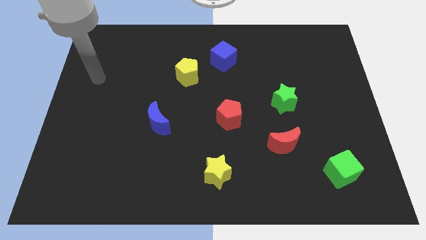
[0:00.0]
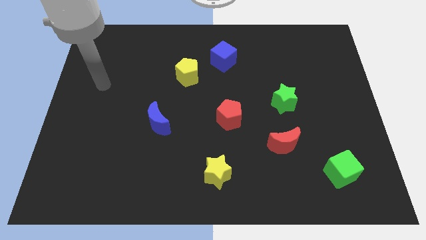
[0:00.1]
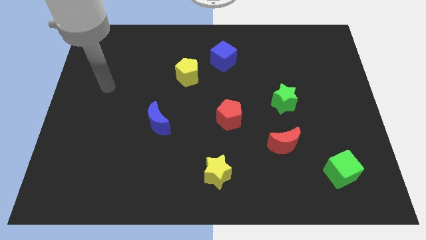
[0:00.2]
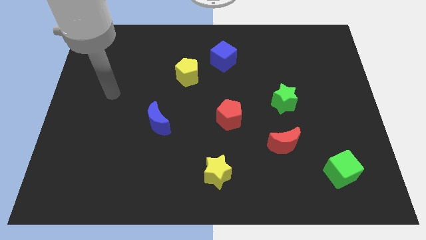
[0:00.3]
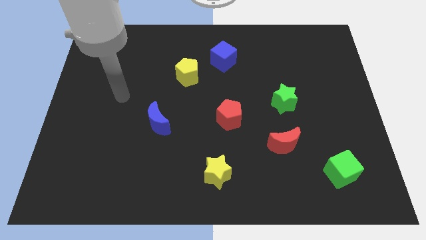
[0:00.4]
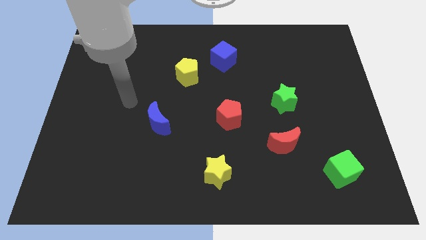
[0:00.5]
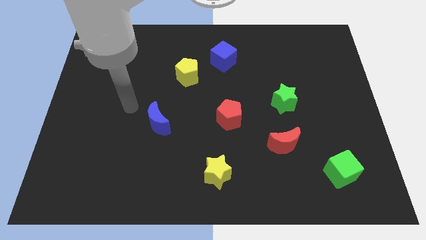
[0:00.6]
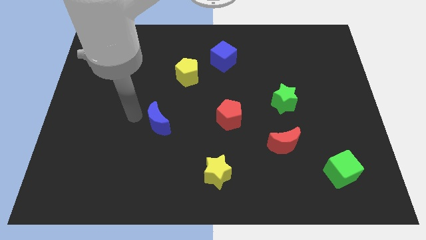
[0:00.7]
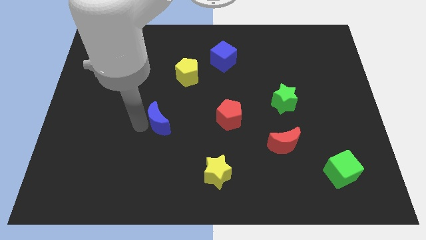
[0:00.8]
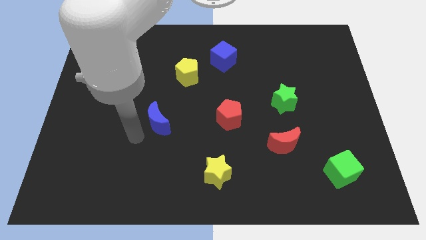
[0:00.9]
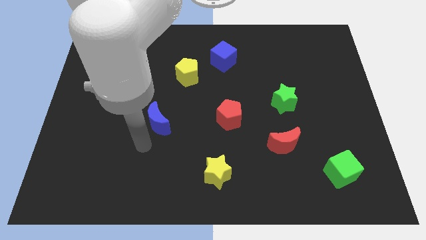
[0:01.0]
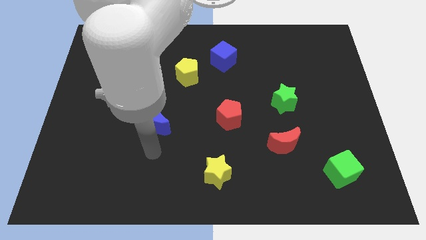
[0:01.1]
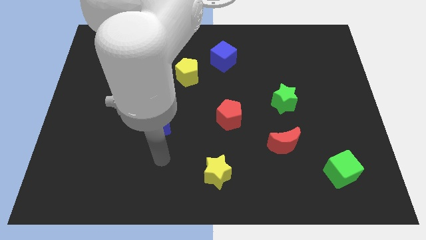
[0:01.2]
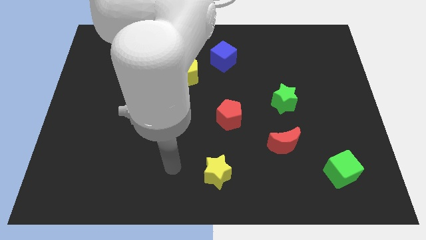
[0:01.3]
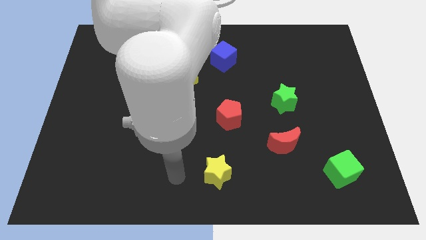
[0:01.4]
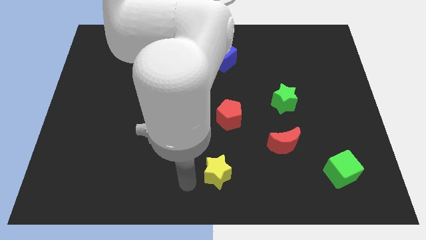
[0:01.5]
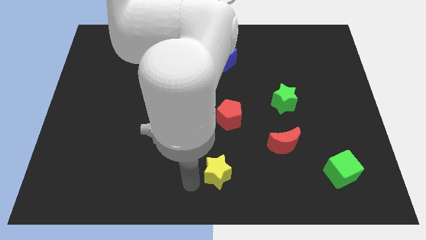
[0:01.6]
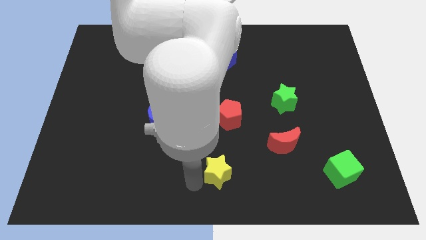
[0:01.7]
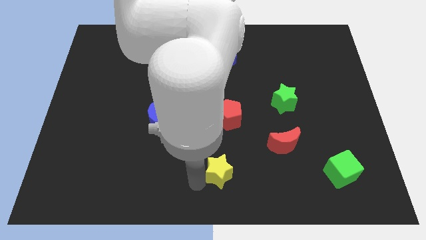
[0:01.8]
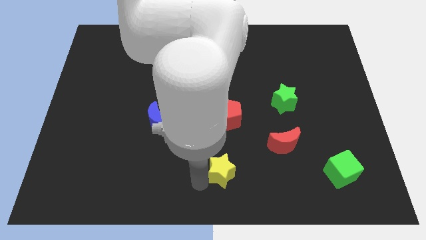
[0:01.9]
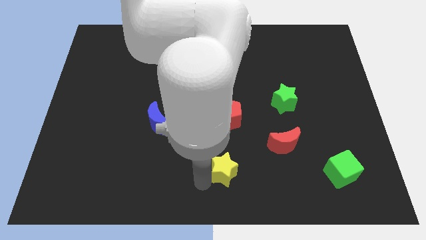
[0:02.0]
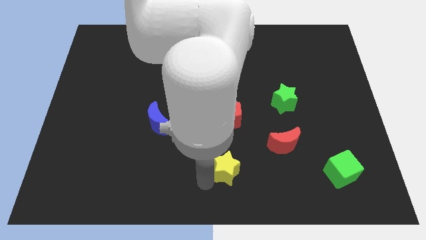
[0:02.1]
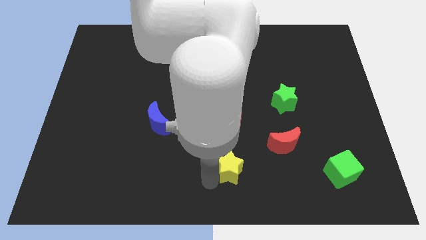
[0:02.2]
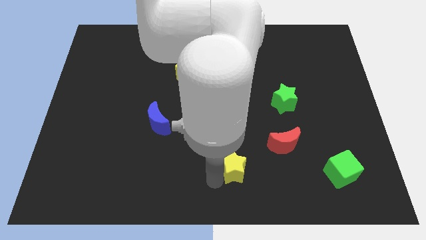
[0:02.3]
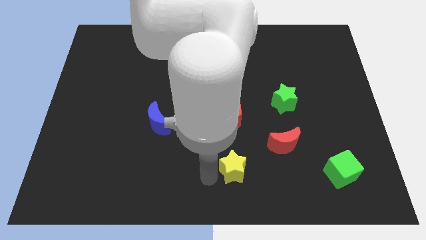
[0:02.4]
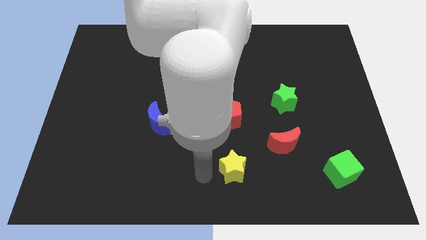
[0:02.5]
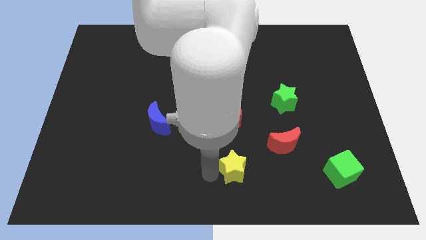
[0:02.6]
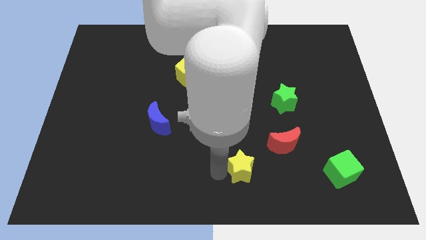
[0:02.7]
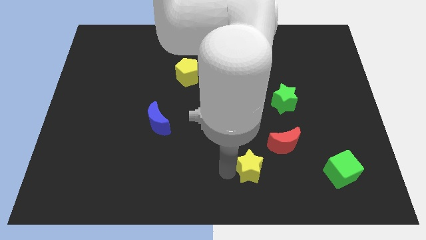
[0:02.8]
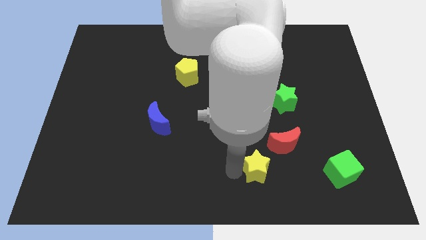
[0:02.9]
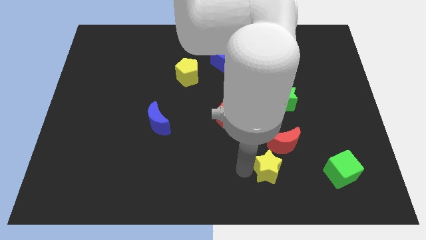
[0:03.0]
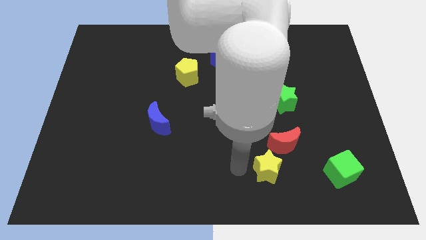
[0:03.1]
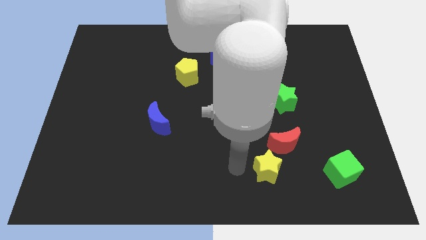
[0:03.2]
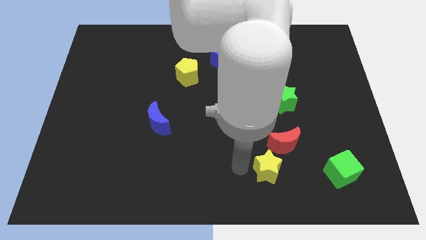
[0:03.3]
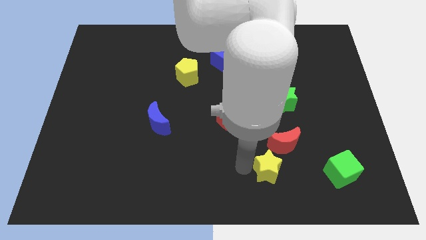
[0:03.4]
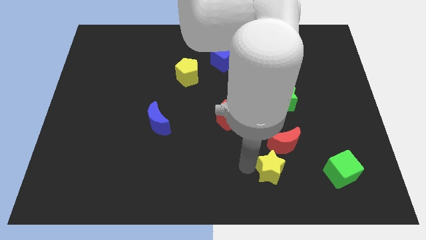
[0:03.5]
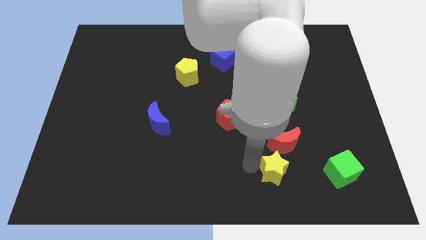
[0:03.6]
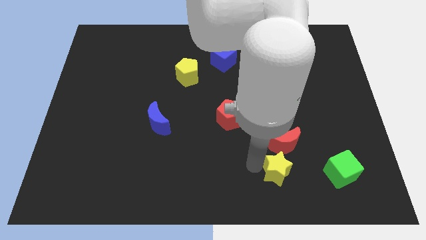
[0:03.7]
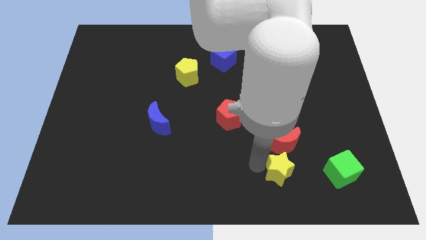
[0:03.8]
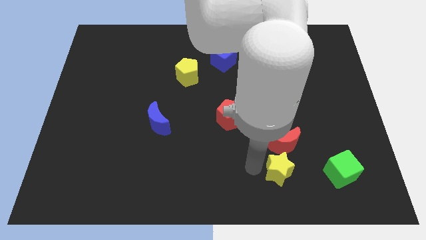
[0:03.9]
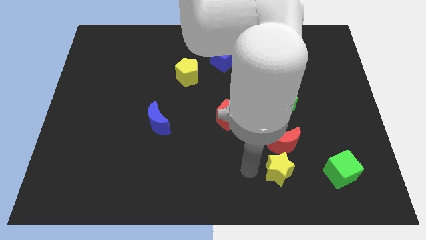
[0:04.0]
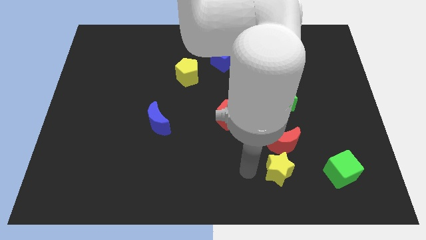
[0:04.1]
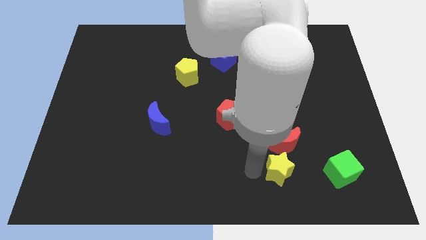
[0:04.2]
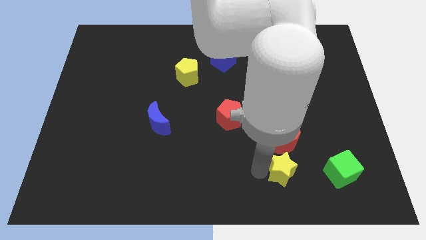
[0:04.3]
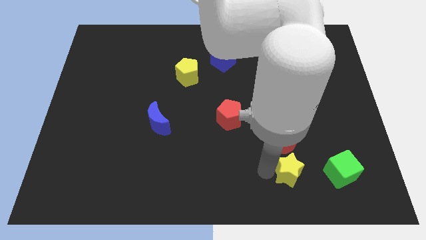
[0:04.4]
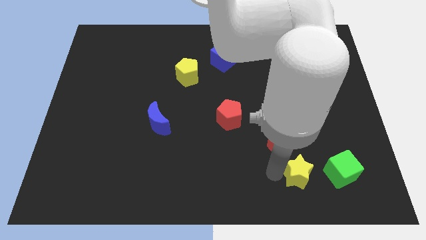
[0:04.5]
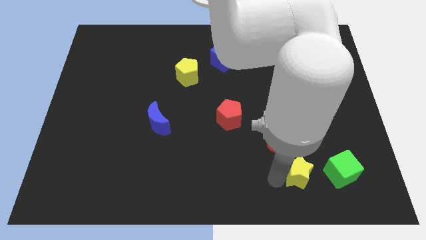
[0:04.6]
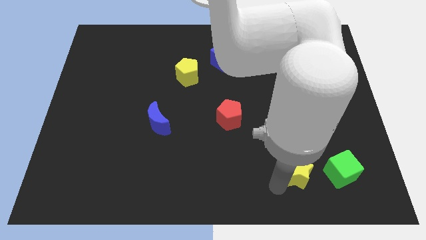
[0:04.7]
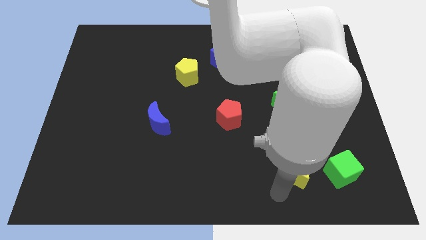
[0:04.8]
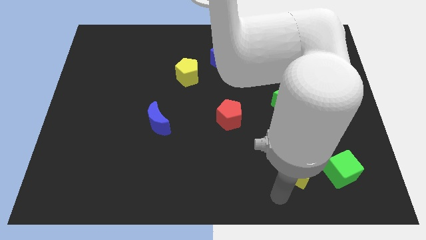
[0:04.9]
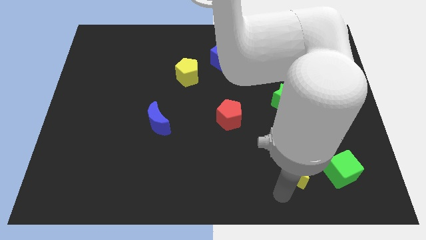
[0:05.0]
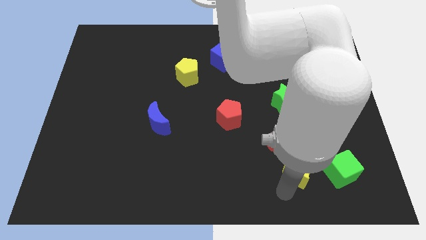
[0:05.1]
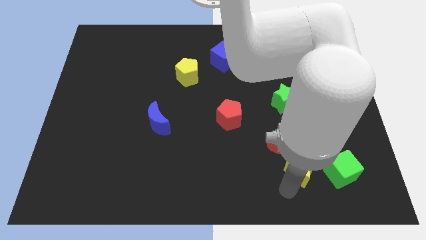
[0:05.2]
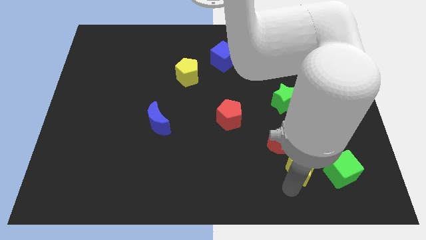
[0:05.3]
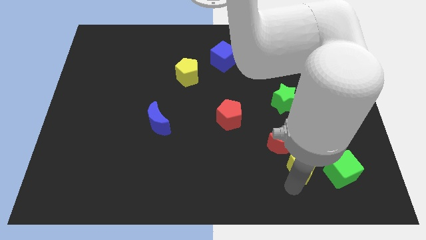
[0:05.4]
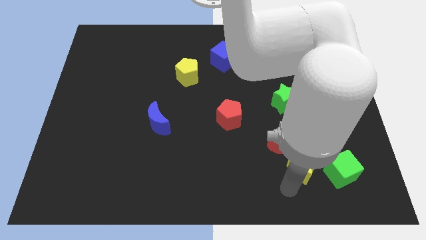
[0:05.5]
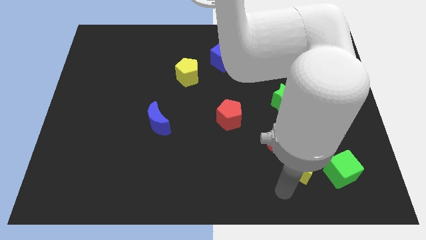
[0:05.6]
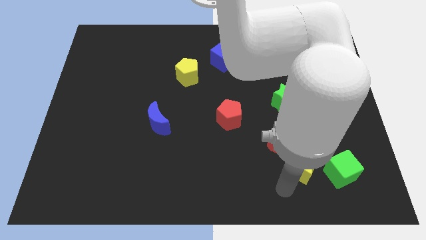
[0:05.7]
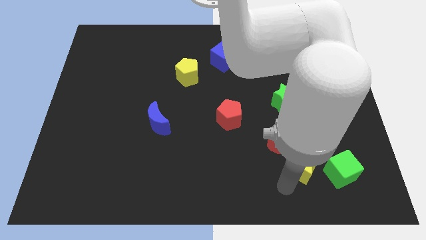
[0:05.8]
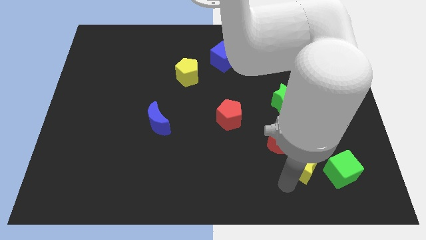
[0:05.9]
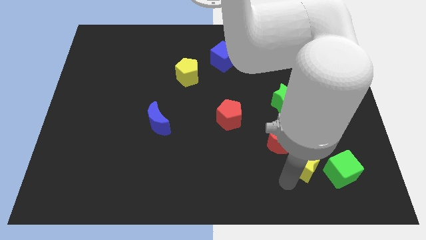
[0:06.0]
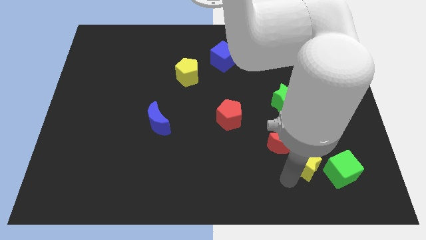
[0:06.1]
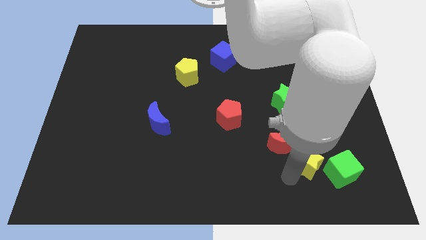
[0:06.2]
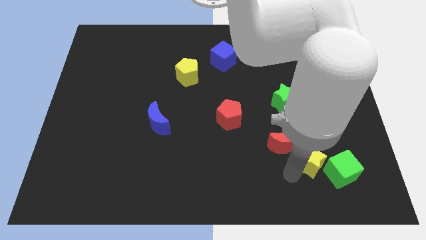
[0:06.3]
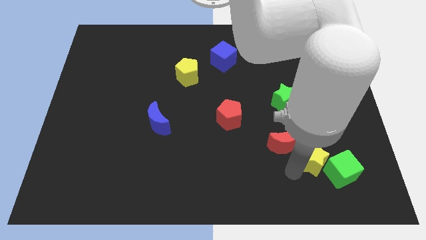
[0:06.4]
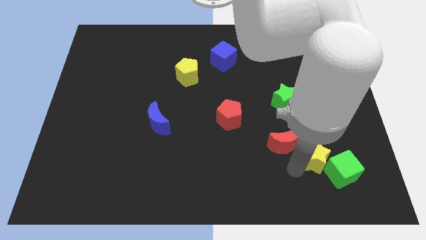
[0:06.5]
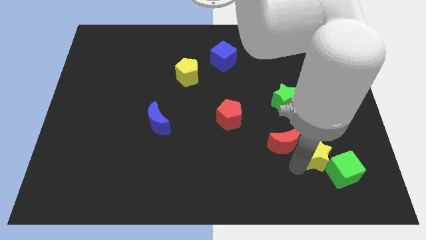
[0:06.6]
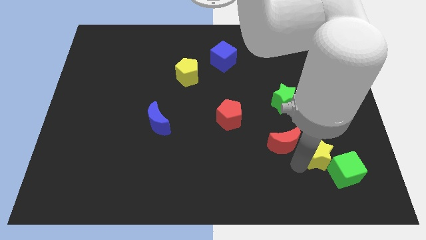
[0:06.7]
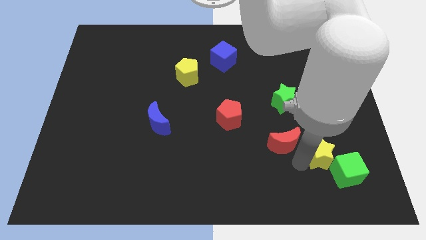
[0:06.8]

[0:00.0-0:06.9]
move the yellow star to the top of the green cube

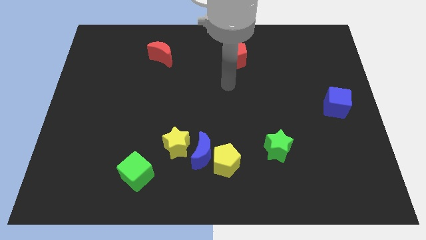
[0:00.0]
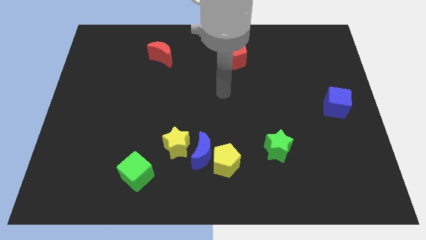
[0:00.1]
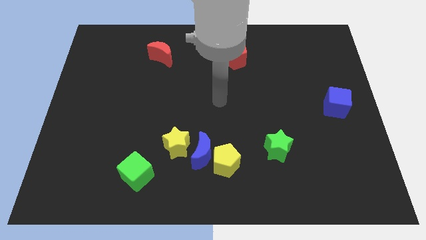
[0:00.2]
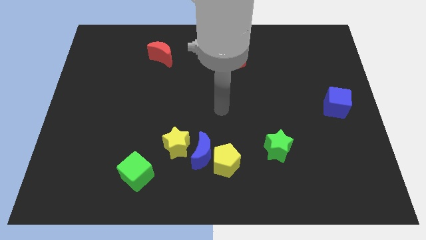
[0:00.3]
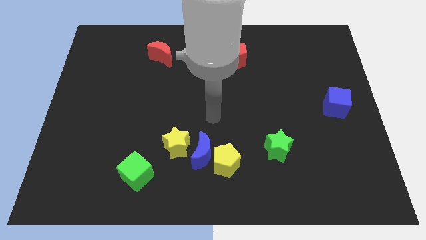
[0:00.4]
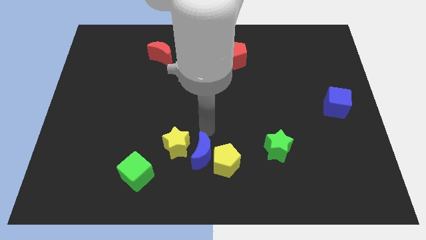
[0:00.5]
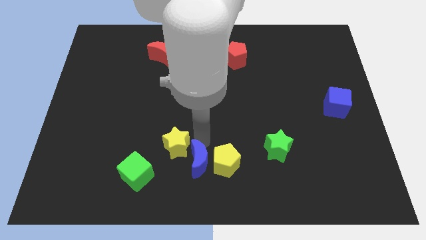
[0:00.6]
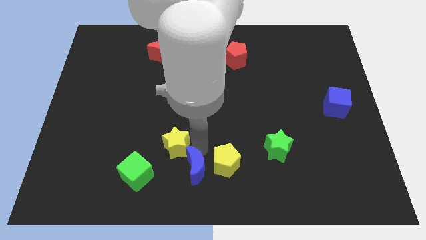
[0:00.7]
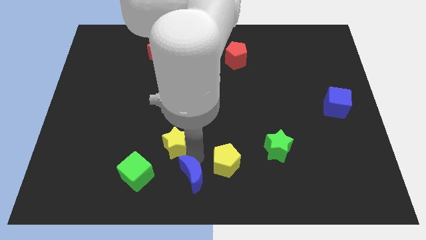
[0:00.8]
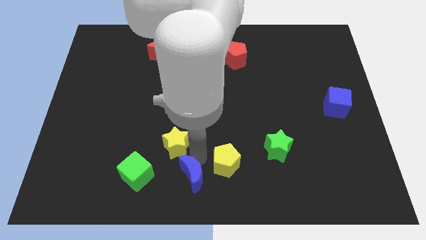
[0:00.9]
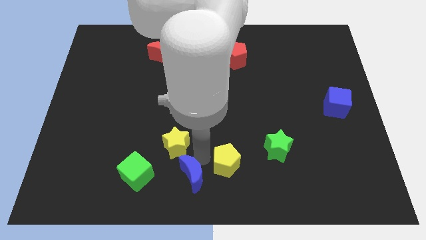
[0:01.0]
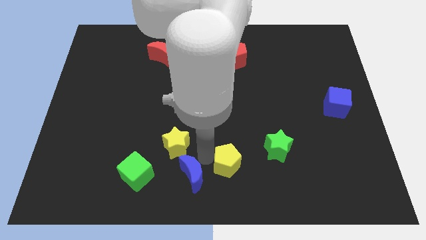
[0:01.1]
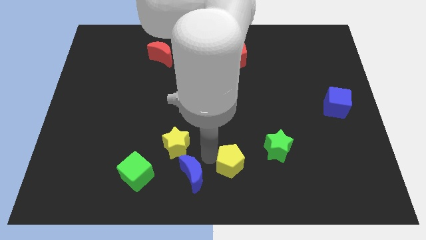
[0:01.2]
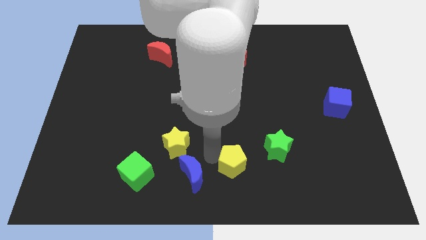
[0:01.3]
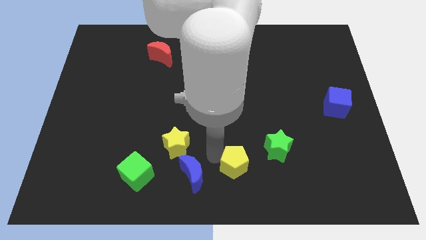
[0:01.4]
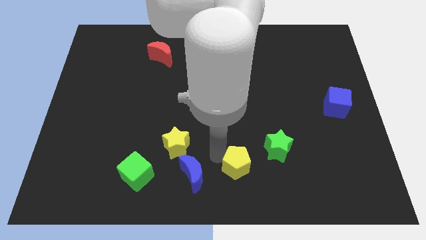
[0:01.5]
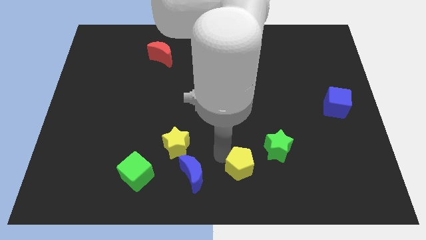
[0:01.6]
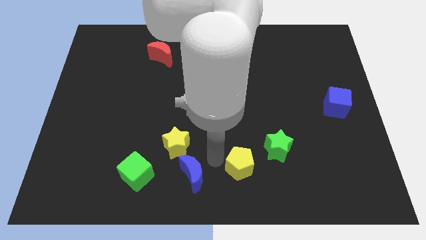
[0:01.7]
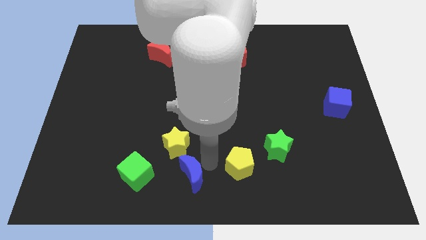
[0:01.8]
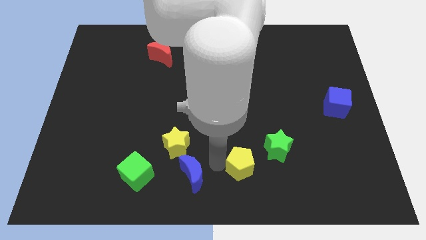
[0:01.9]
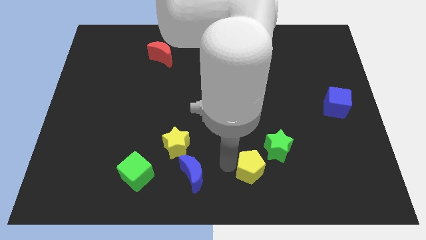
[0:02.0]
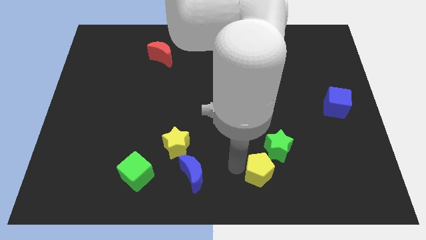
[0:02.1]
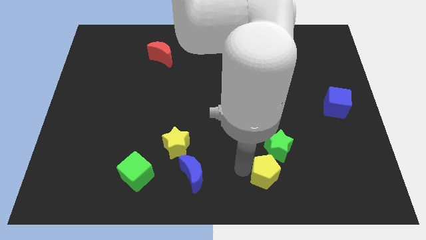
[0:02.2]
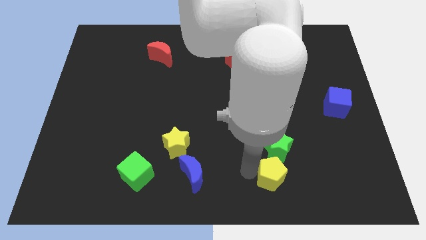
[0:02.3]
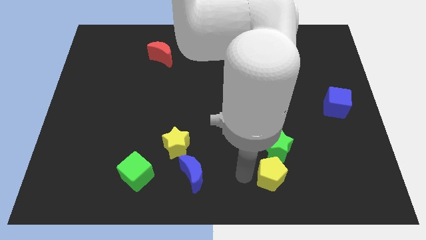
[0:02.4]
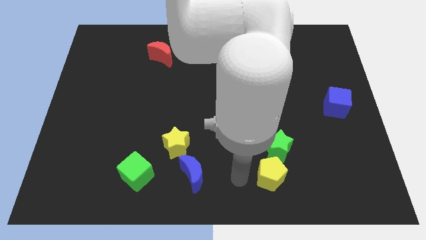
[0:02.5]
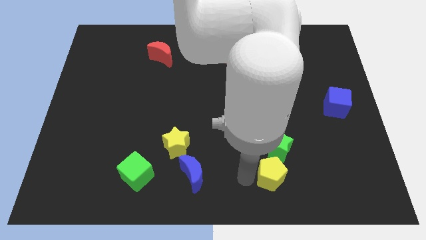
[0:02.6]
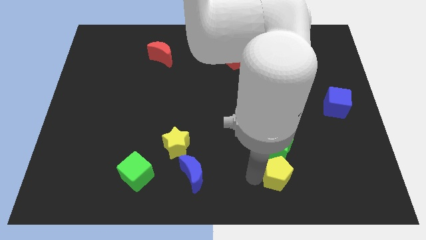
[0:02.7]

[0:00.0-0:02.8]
slide the yellow pentagon to the bottom right of the green star
